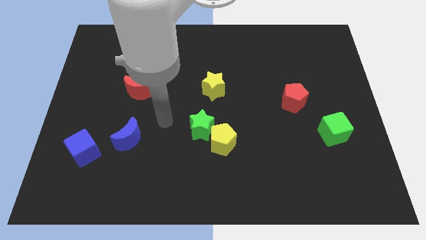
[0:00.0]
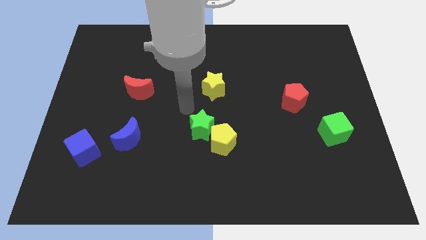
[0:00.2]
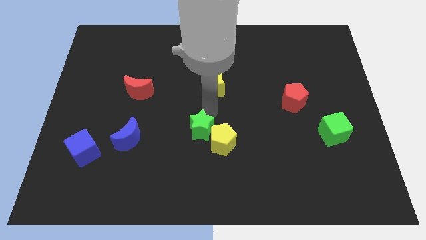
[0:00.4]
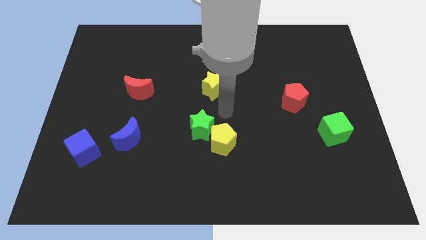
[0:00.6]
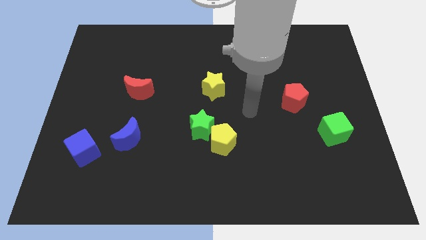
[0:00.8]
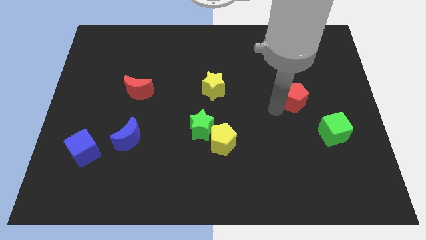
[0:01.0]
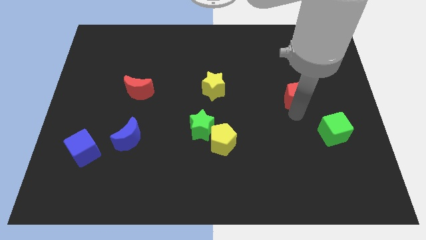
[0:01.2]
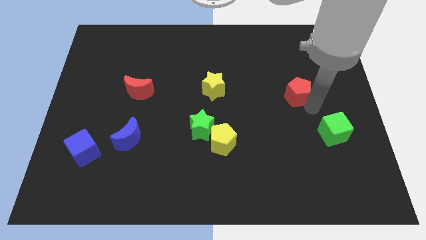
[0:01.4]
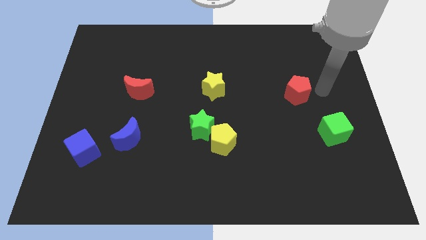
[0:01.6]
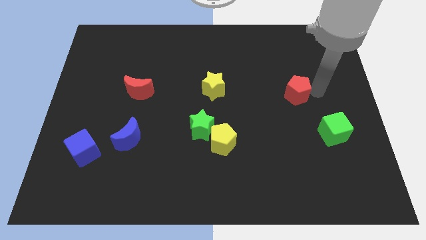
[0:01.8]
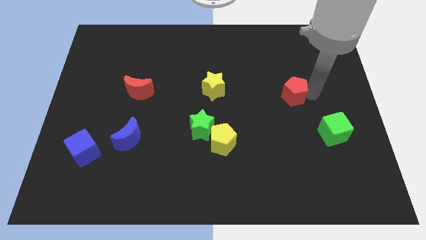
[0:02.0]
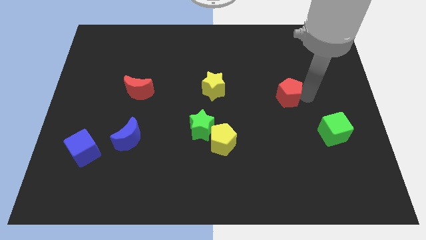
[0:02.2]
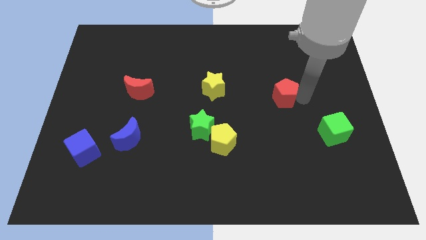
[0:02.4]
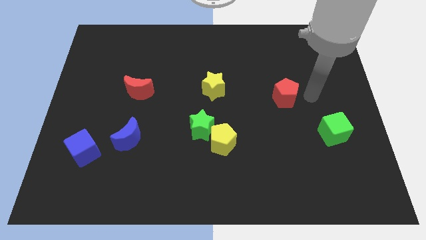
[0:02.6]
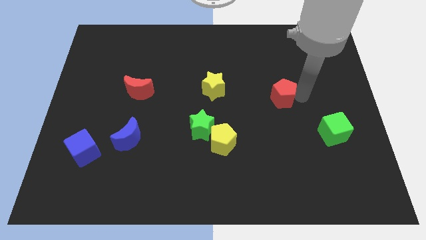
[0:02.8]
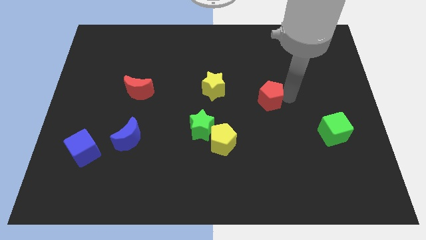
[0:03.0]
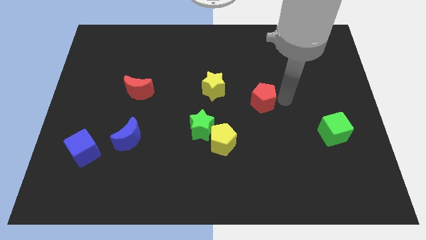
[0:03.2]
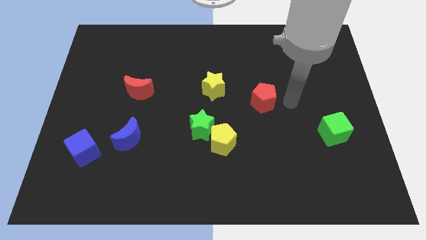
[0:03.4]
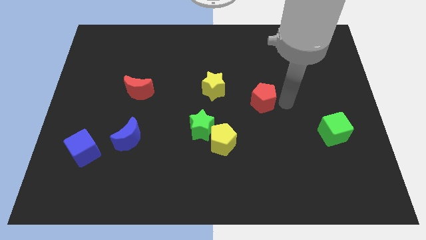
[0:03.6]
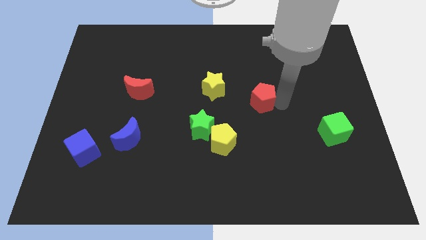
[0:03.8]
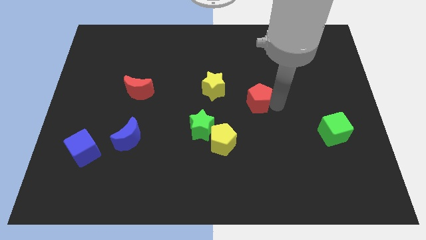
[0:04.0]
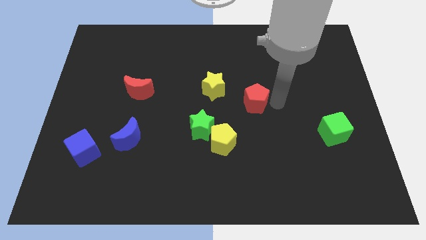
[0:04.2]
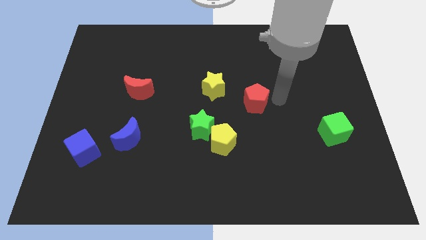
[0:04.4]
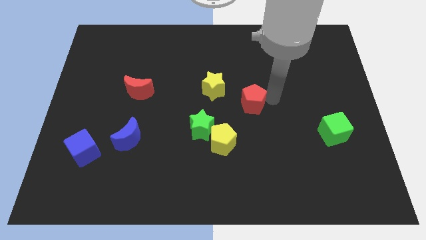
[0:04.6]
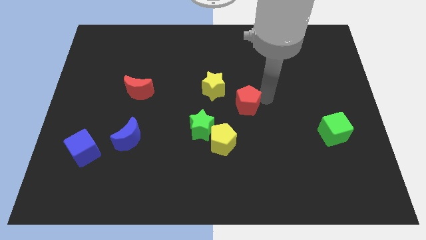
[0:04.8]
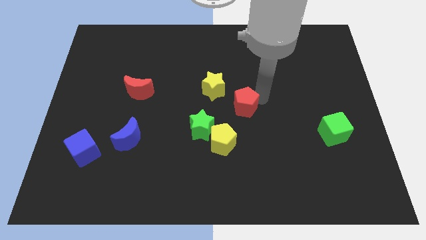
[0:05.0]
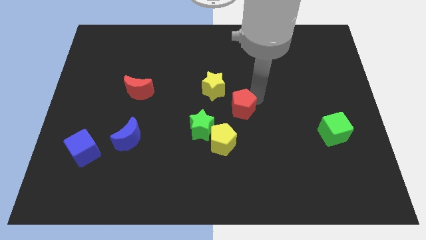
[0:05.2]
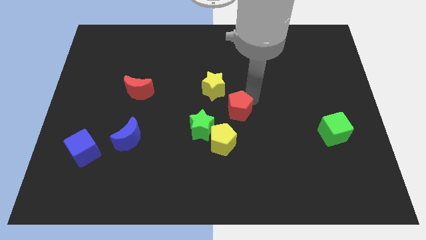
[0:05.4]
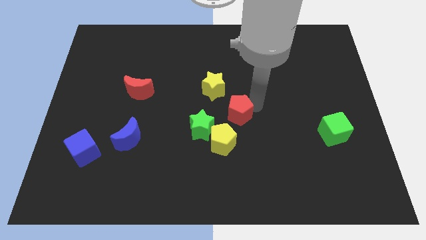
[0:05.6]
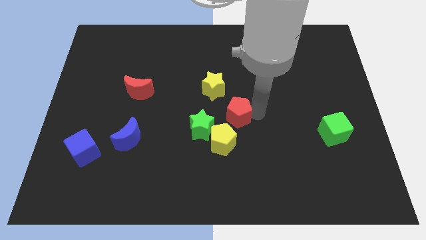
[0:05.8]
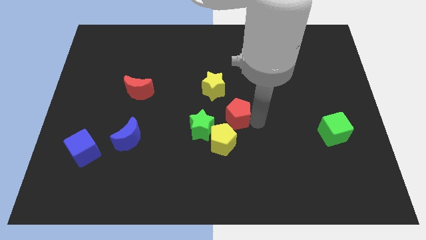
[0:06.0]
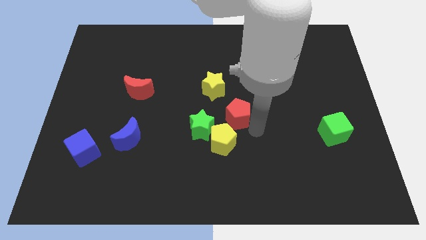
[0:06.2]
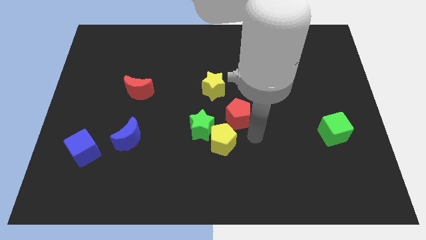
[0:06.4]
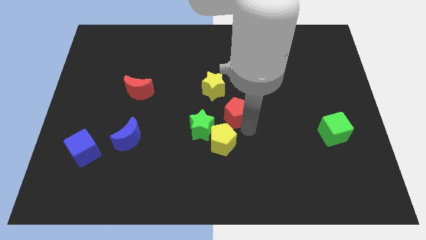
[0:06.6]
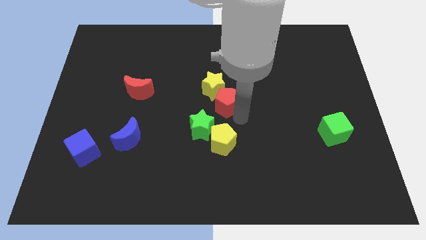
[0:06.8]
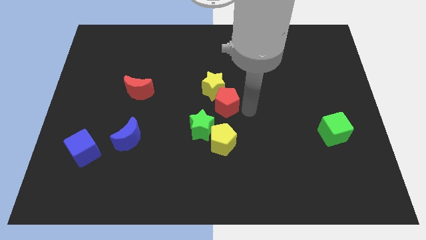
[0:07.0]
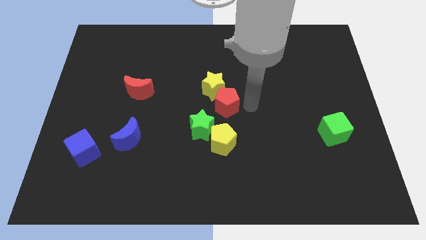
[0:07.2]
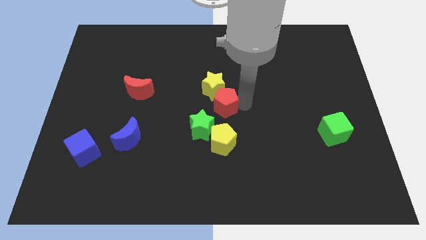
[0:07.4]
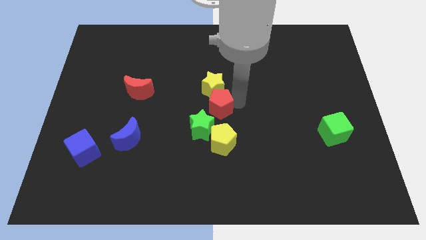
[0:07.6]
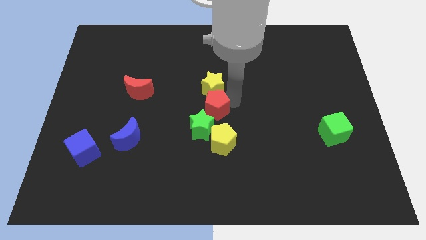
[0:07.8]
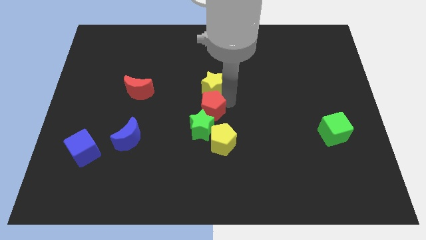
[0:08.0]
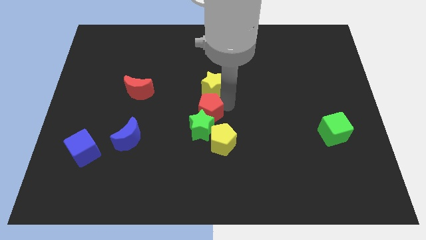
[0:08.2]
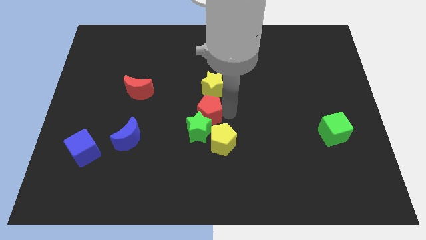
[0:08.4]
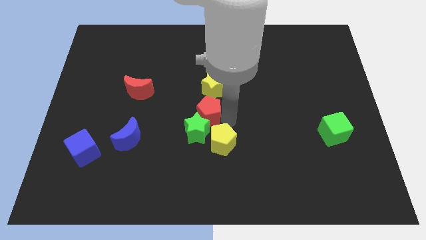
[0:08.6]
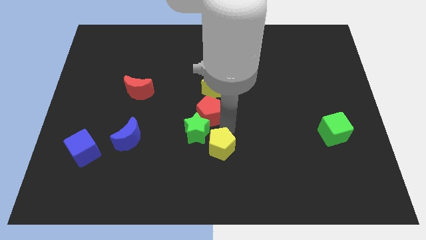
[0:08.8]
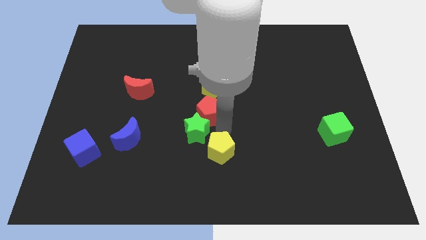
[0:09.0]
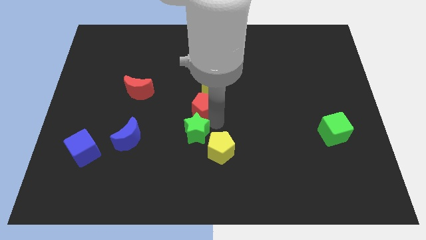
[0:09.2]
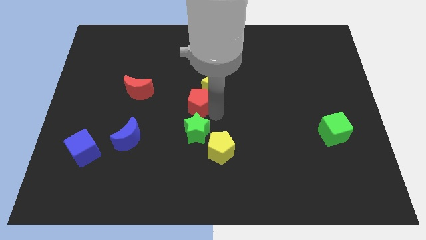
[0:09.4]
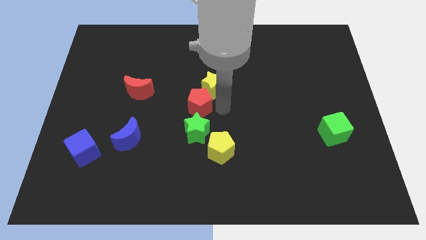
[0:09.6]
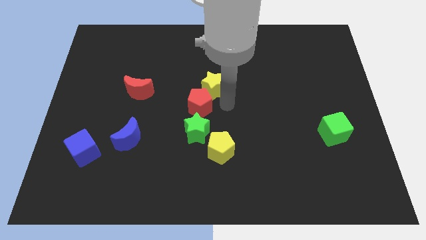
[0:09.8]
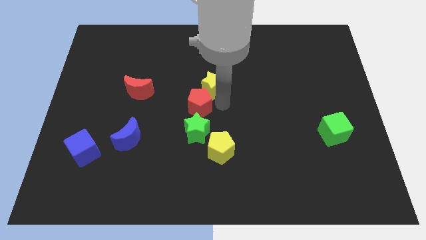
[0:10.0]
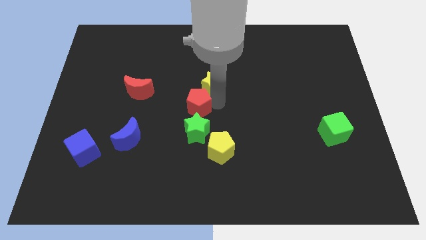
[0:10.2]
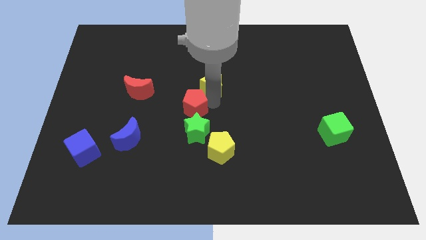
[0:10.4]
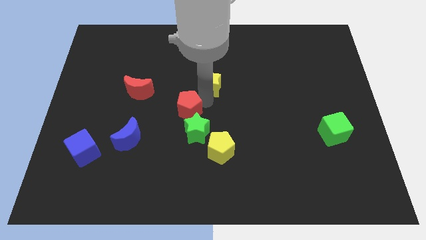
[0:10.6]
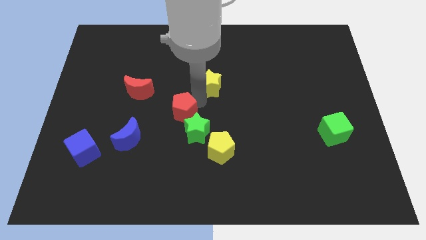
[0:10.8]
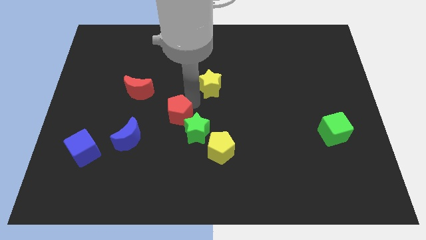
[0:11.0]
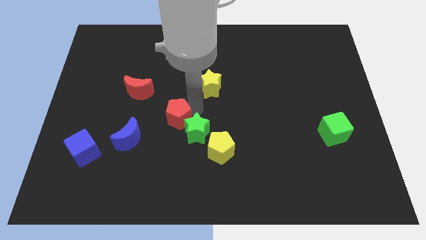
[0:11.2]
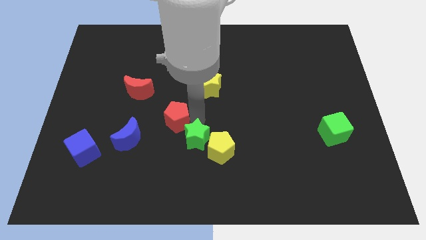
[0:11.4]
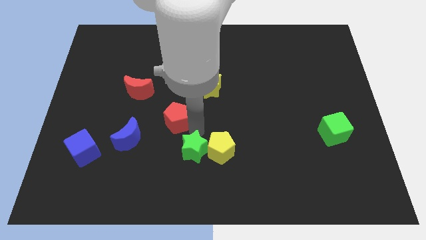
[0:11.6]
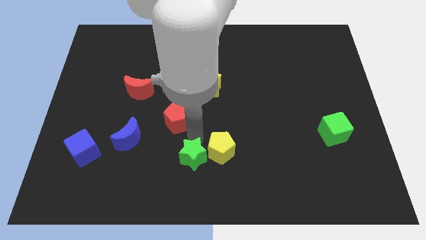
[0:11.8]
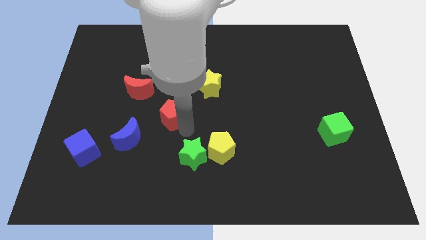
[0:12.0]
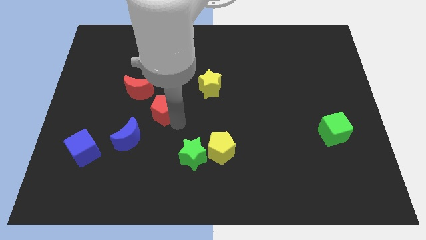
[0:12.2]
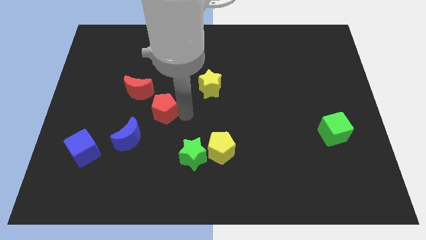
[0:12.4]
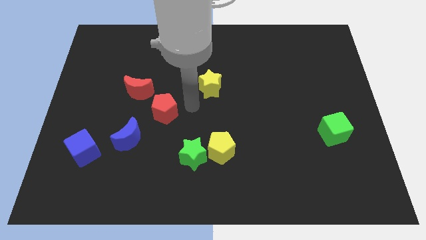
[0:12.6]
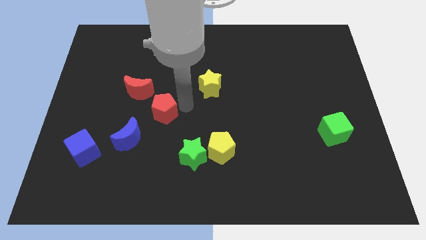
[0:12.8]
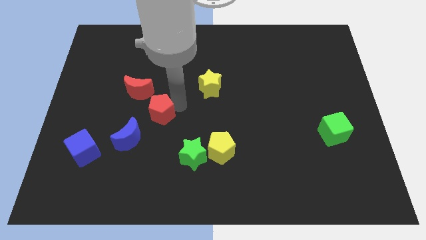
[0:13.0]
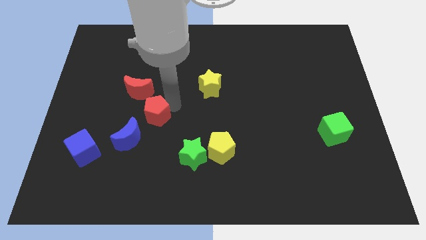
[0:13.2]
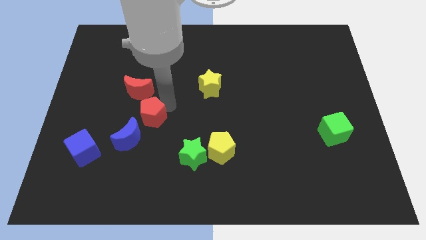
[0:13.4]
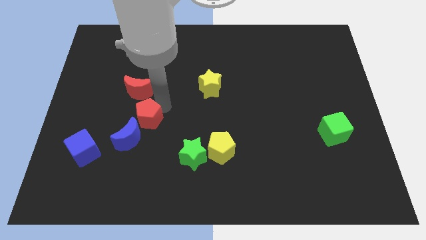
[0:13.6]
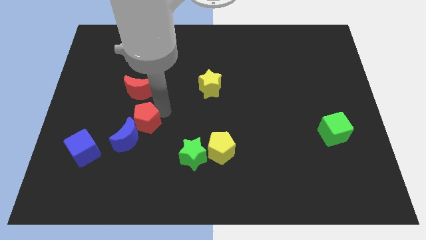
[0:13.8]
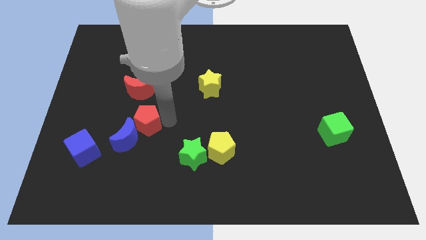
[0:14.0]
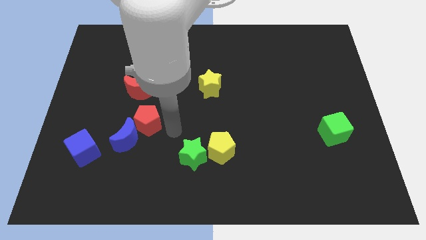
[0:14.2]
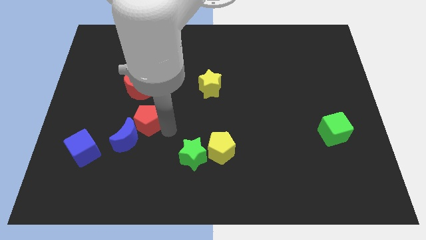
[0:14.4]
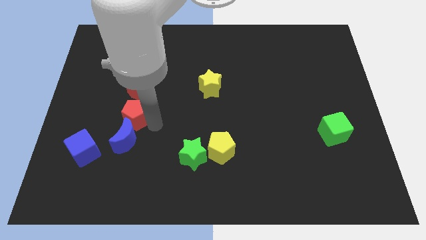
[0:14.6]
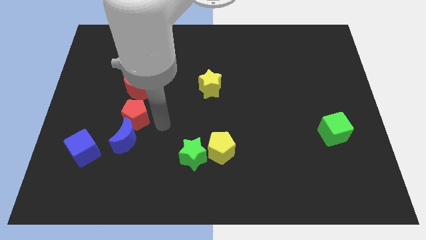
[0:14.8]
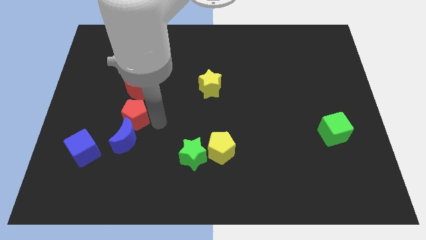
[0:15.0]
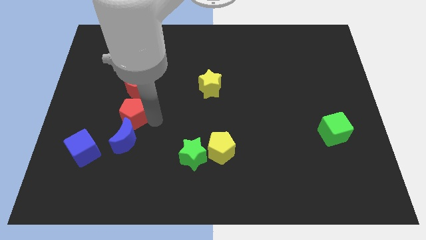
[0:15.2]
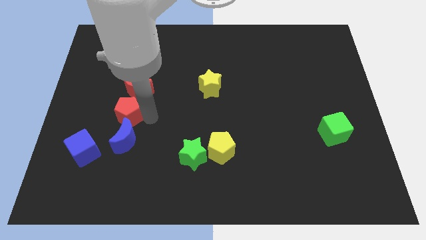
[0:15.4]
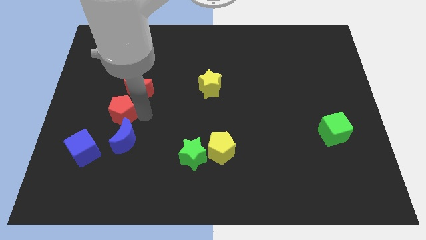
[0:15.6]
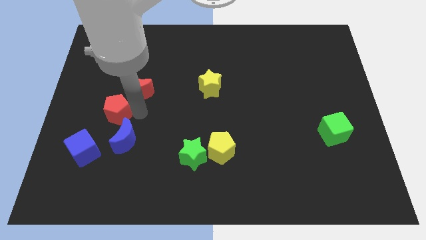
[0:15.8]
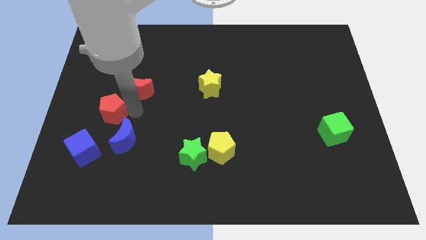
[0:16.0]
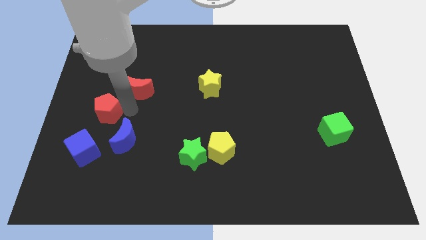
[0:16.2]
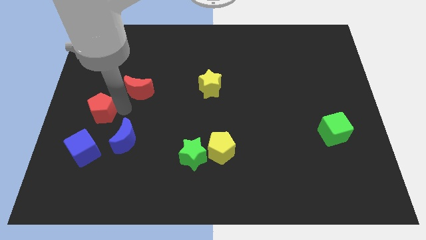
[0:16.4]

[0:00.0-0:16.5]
push the red pentagon to the center left
